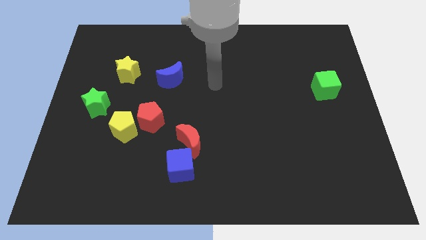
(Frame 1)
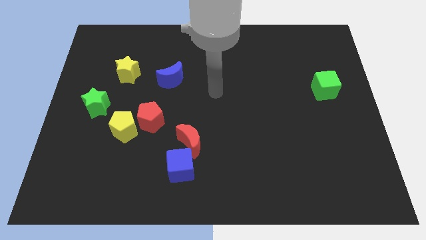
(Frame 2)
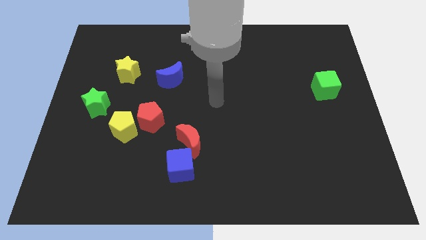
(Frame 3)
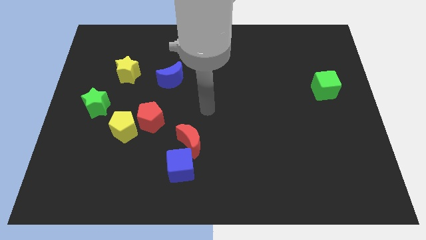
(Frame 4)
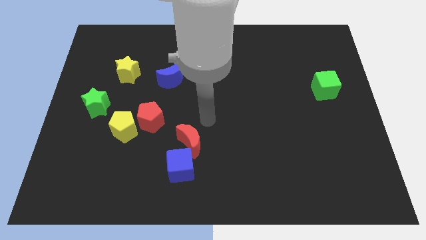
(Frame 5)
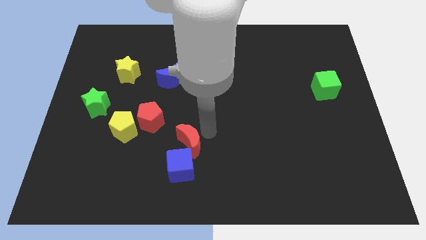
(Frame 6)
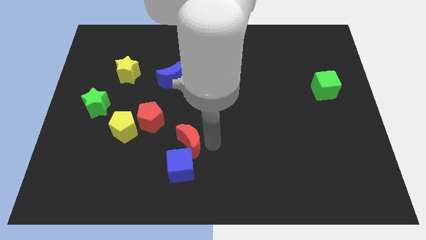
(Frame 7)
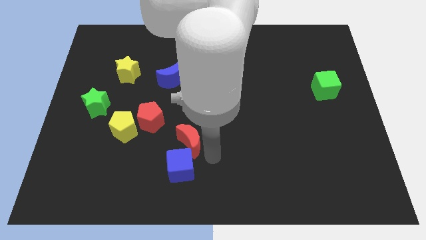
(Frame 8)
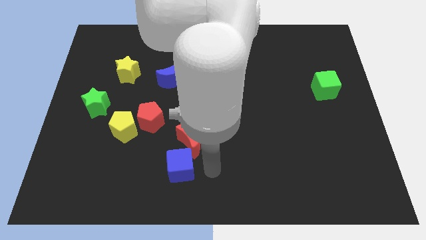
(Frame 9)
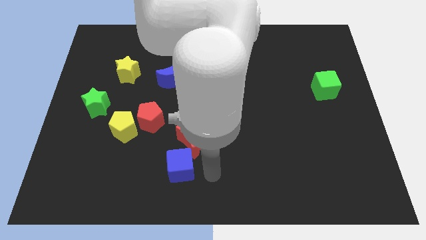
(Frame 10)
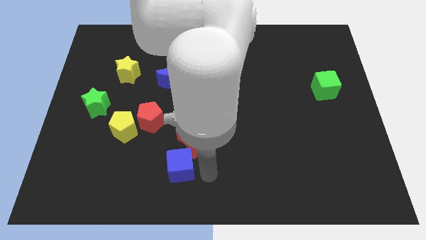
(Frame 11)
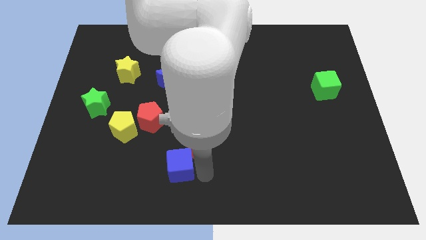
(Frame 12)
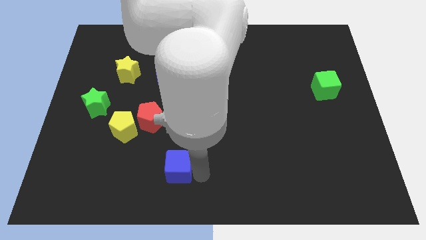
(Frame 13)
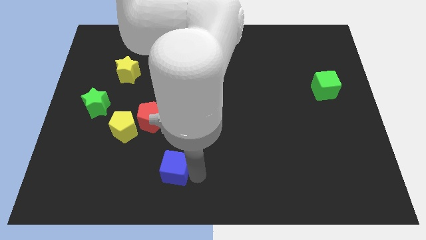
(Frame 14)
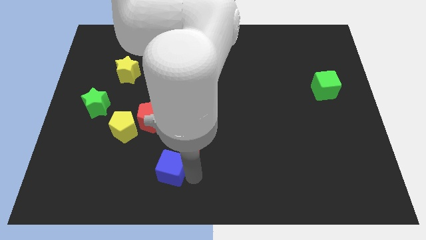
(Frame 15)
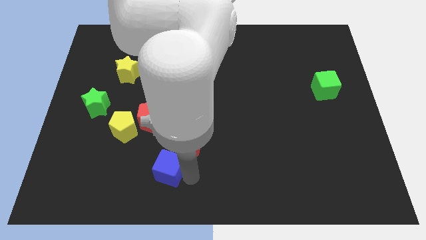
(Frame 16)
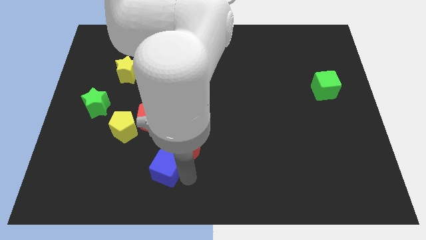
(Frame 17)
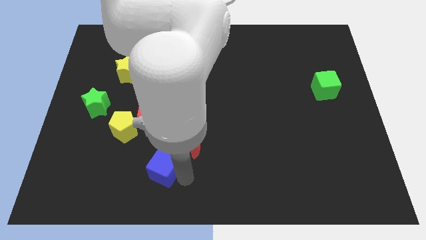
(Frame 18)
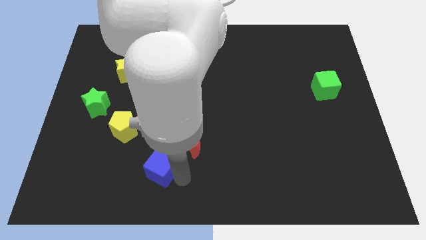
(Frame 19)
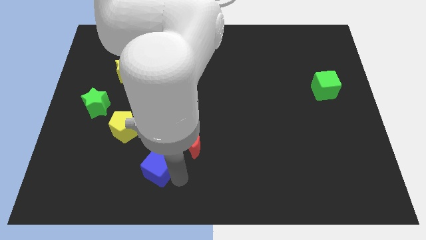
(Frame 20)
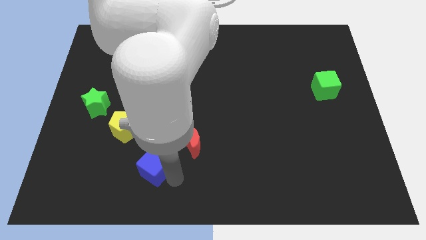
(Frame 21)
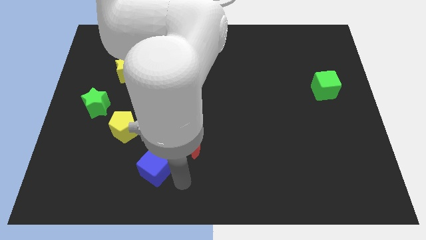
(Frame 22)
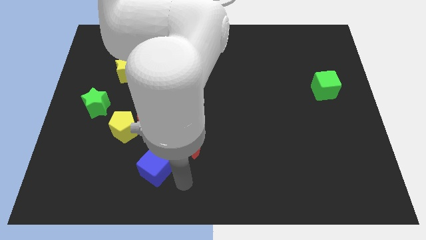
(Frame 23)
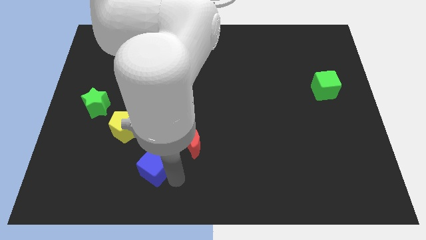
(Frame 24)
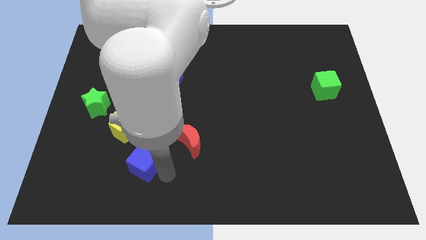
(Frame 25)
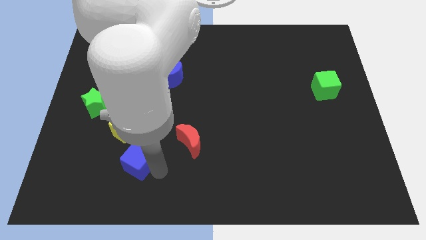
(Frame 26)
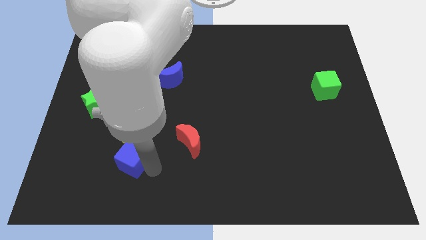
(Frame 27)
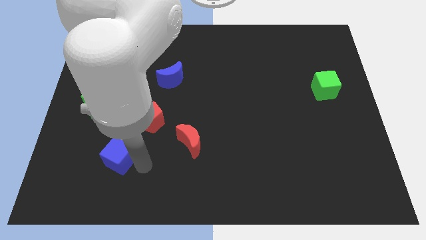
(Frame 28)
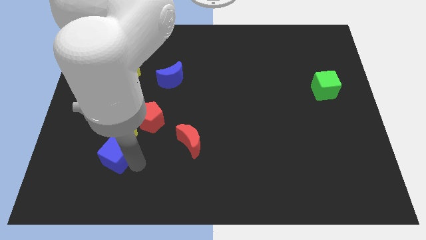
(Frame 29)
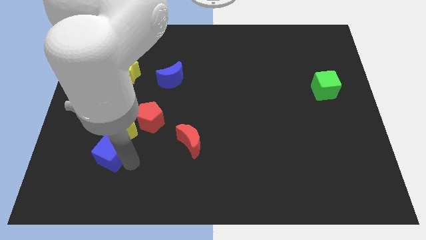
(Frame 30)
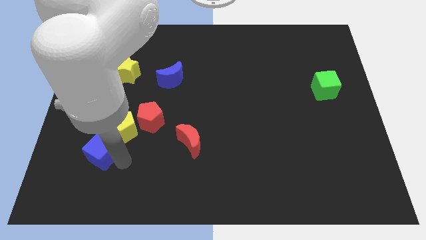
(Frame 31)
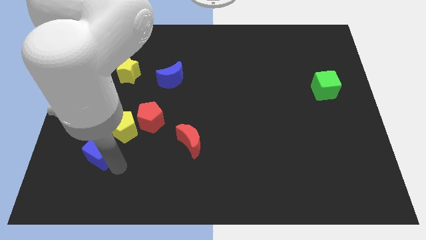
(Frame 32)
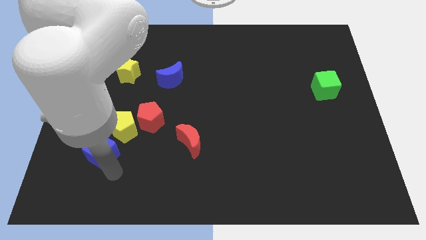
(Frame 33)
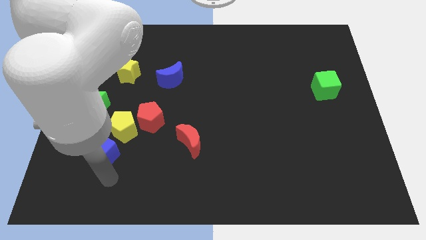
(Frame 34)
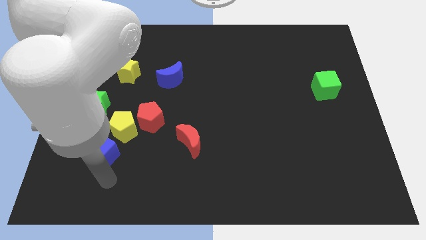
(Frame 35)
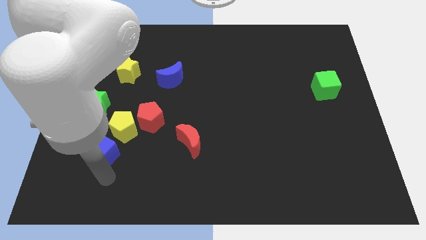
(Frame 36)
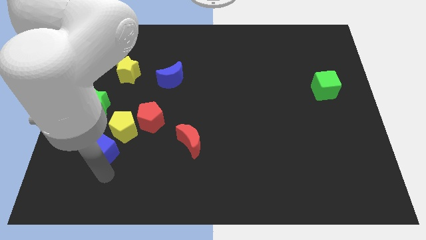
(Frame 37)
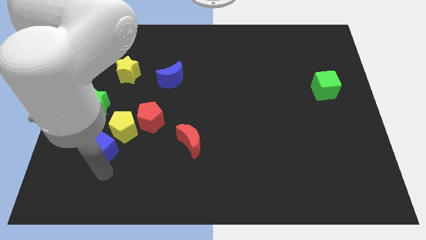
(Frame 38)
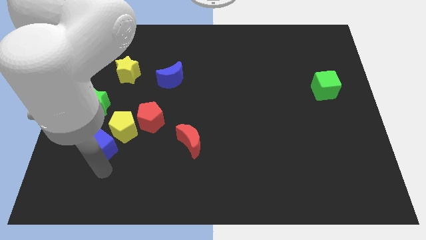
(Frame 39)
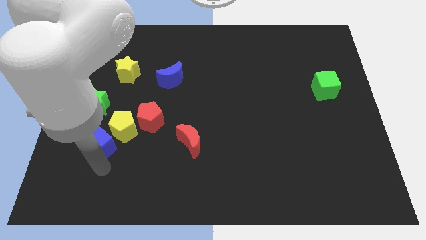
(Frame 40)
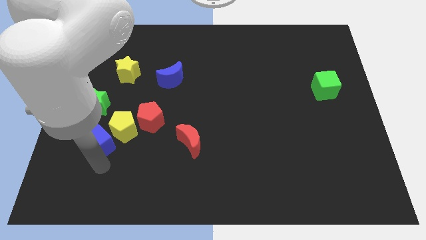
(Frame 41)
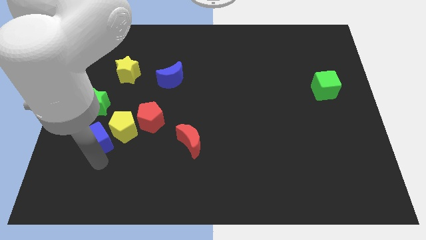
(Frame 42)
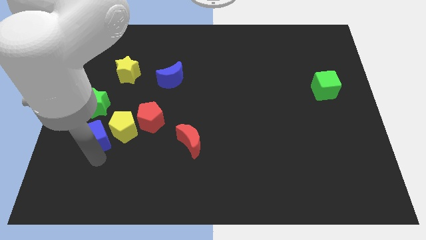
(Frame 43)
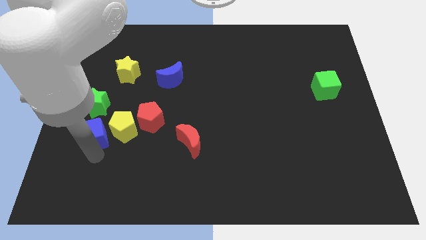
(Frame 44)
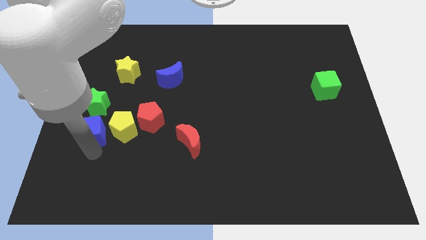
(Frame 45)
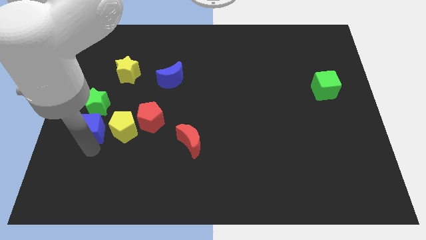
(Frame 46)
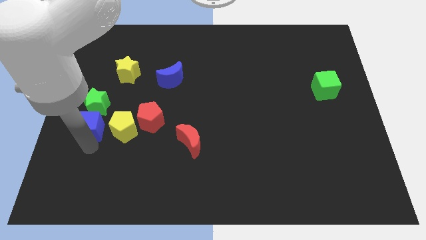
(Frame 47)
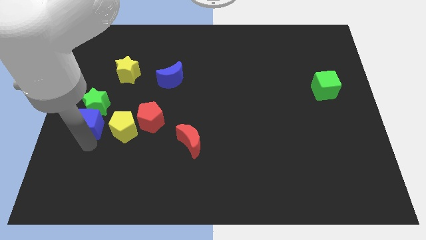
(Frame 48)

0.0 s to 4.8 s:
push the blue cube close to the green star

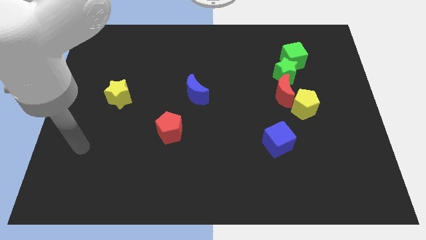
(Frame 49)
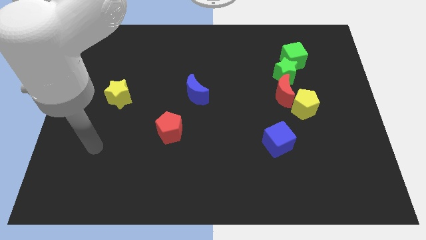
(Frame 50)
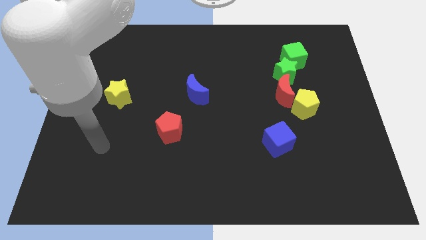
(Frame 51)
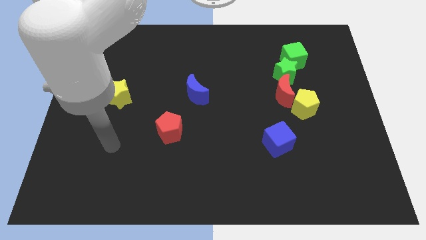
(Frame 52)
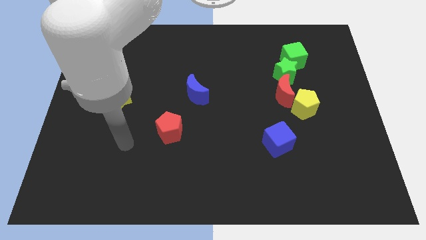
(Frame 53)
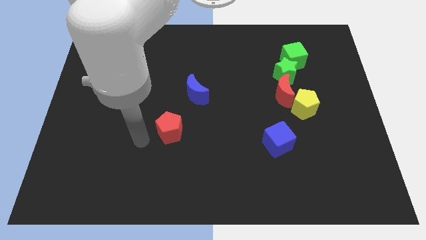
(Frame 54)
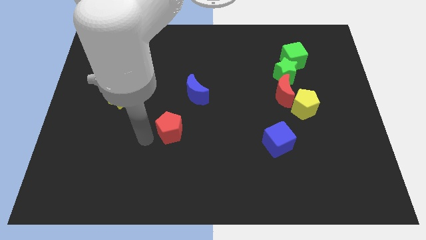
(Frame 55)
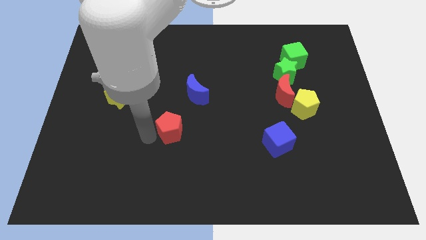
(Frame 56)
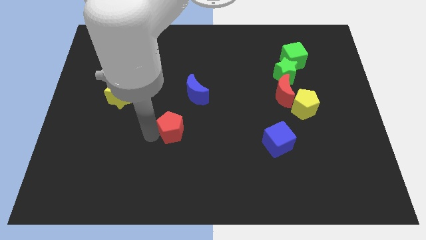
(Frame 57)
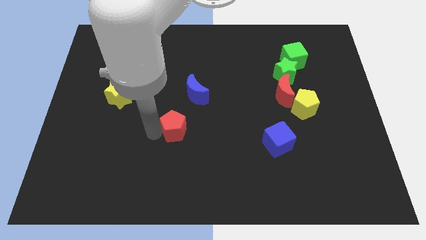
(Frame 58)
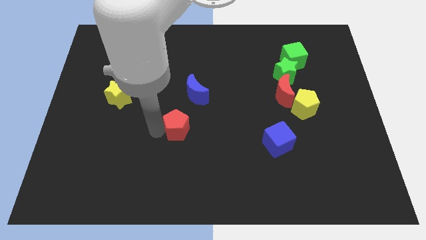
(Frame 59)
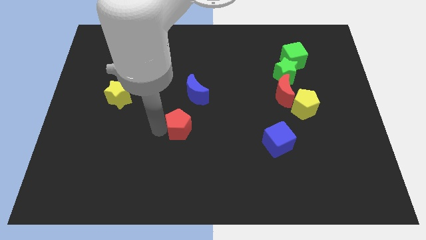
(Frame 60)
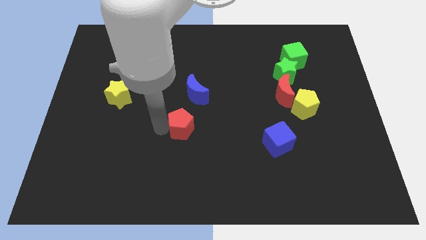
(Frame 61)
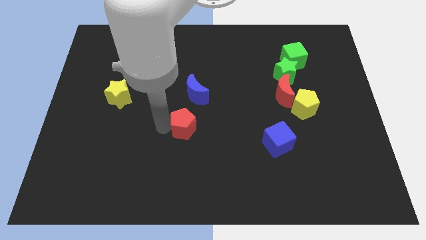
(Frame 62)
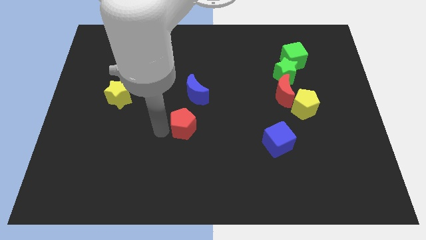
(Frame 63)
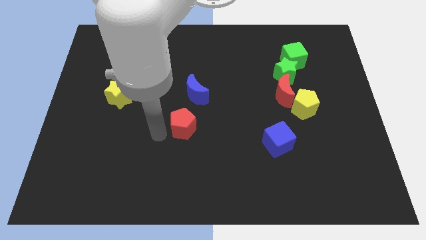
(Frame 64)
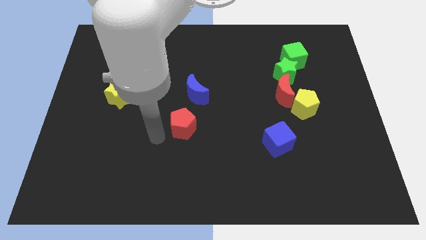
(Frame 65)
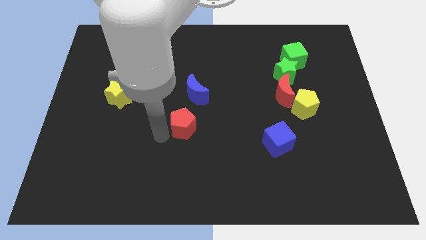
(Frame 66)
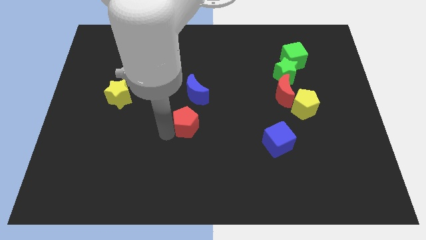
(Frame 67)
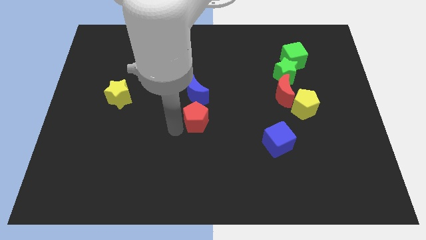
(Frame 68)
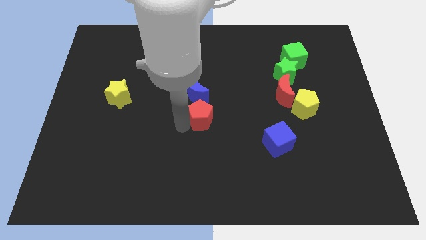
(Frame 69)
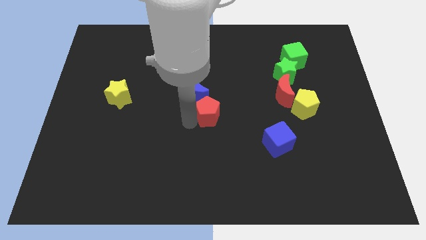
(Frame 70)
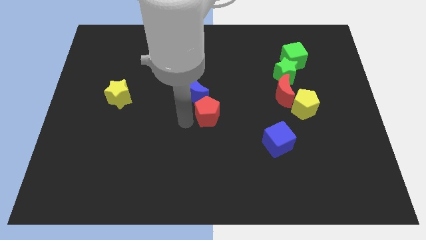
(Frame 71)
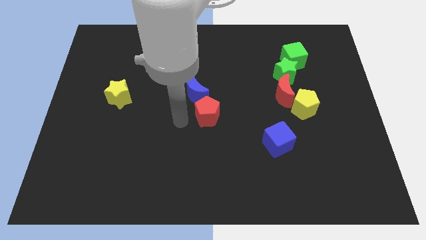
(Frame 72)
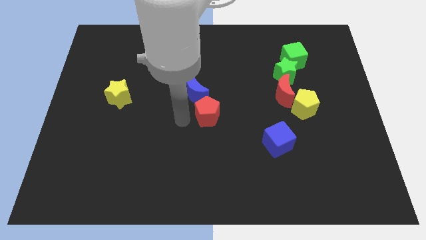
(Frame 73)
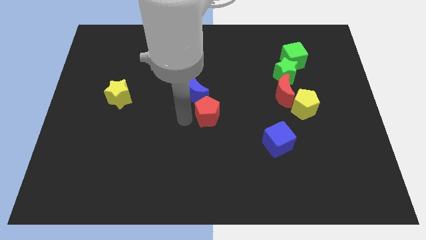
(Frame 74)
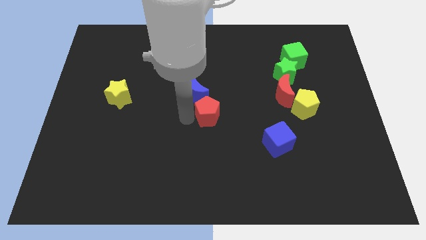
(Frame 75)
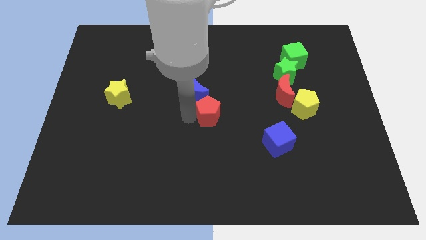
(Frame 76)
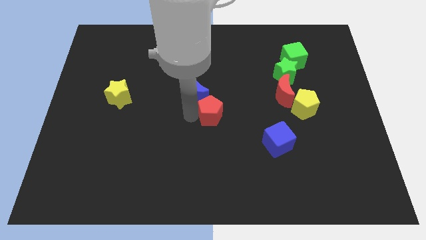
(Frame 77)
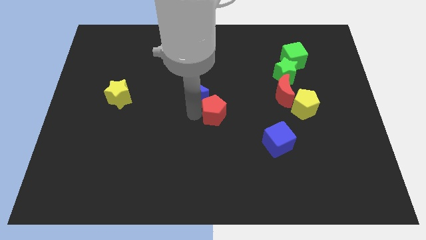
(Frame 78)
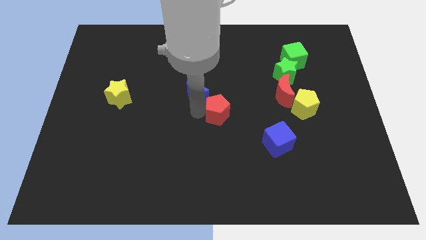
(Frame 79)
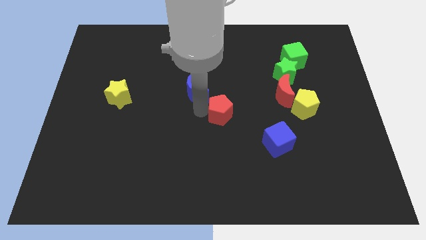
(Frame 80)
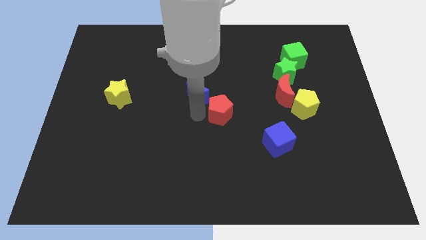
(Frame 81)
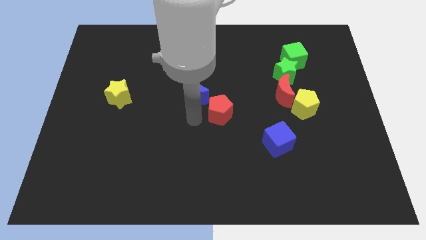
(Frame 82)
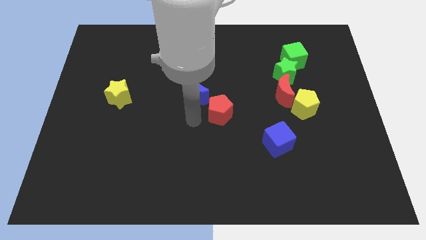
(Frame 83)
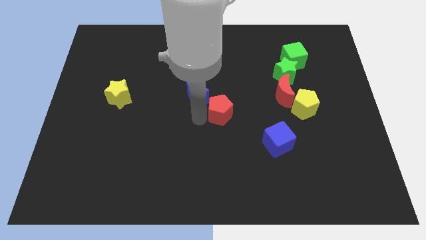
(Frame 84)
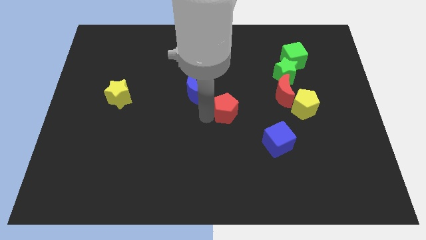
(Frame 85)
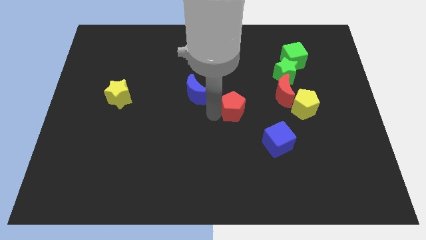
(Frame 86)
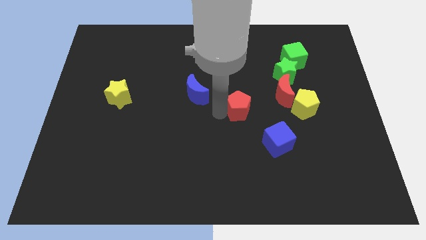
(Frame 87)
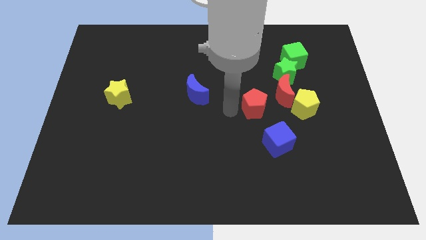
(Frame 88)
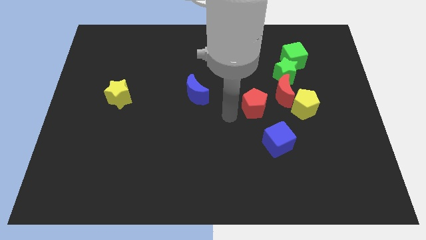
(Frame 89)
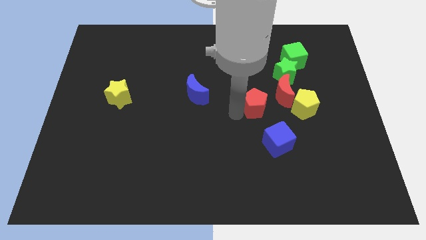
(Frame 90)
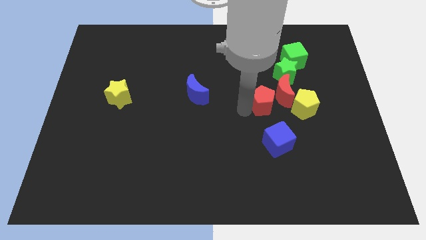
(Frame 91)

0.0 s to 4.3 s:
push the red pentagon towards the red moon
